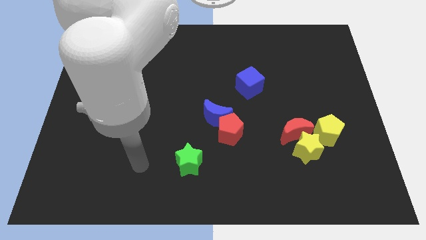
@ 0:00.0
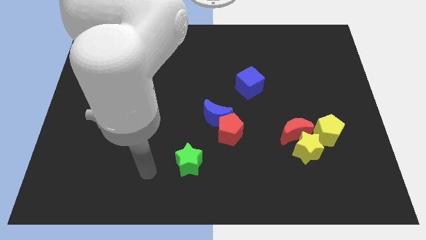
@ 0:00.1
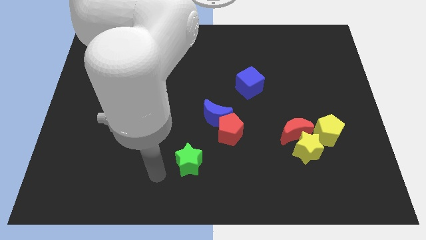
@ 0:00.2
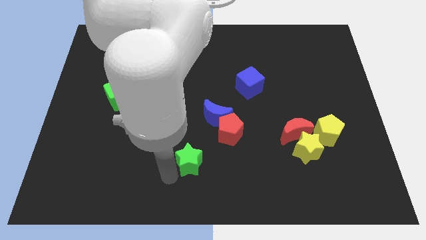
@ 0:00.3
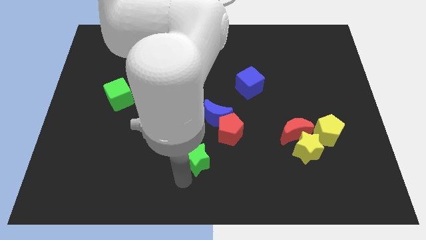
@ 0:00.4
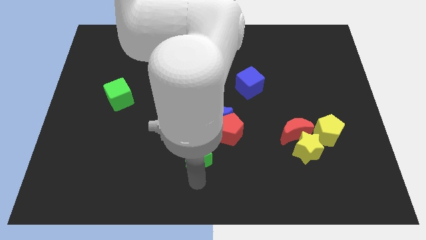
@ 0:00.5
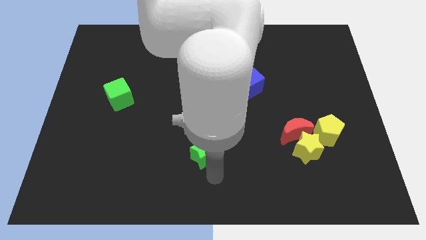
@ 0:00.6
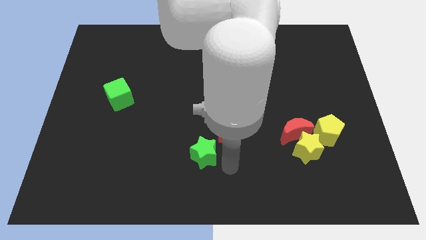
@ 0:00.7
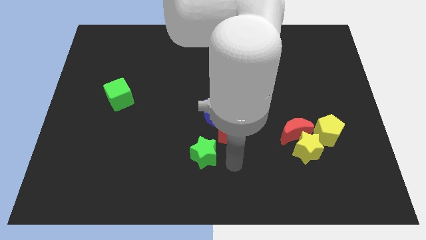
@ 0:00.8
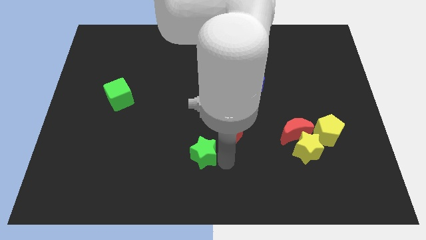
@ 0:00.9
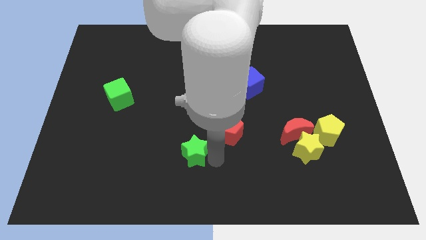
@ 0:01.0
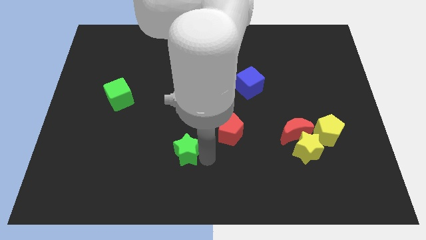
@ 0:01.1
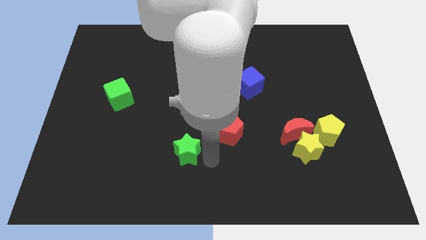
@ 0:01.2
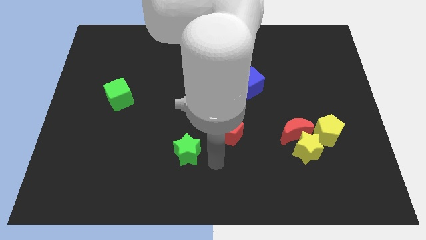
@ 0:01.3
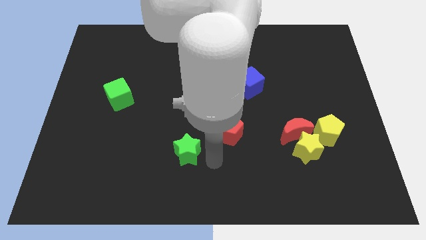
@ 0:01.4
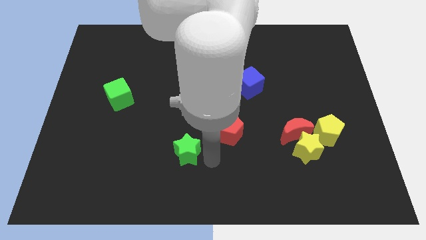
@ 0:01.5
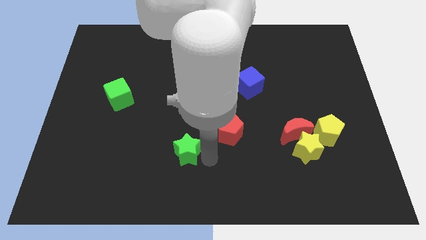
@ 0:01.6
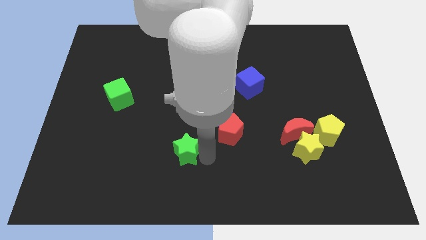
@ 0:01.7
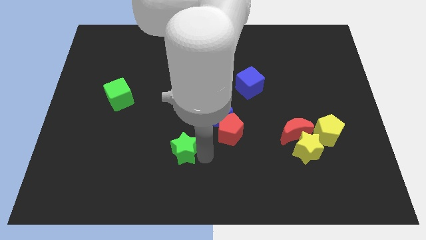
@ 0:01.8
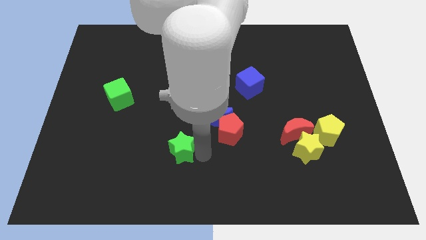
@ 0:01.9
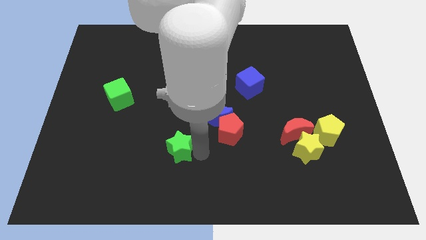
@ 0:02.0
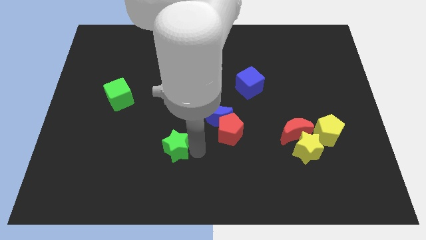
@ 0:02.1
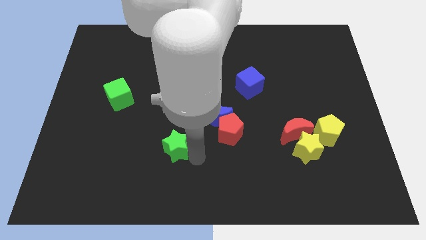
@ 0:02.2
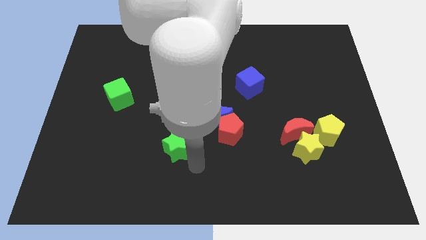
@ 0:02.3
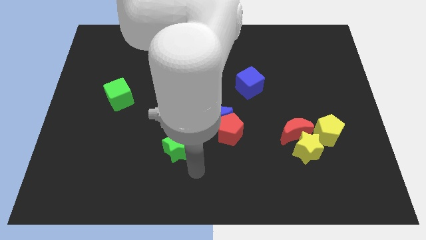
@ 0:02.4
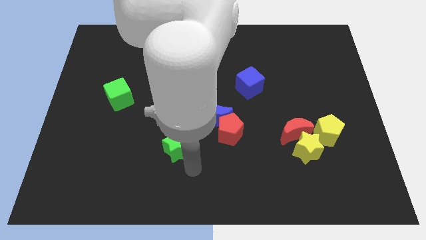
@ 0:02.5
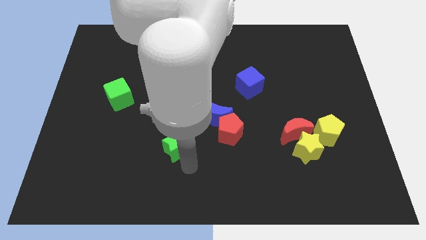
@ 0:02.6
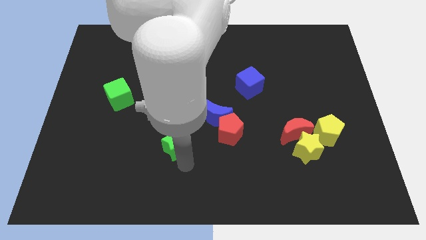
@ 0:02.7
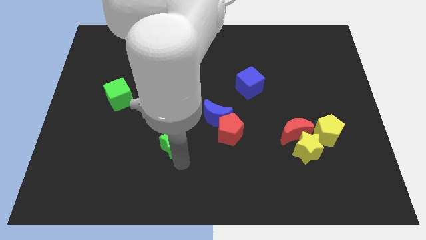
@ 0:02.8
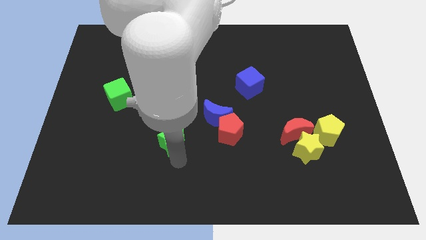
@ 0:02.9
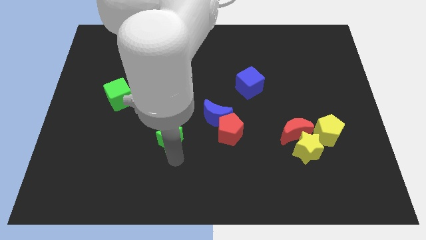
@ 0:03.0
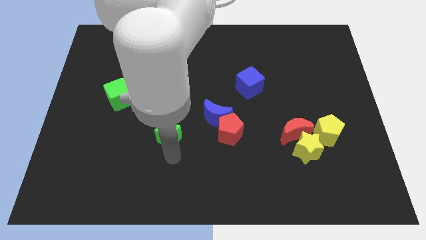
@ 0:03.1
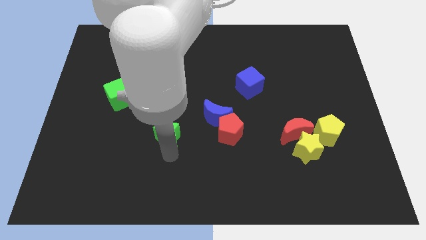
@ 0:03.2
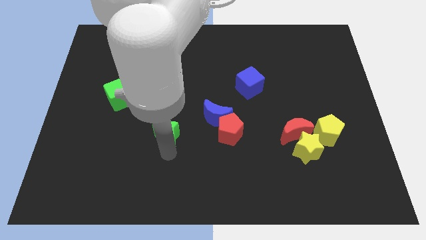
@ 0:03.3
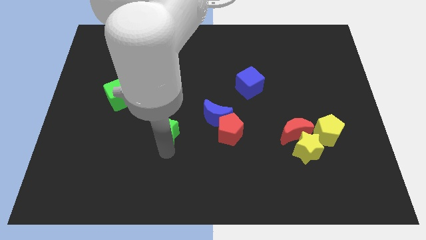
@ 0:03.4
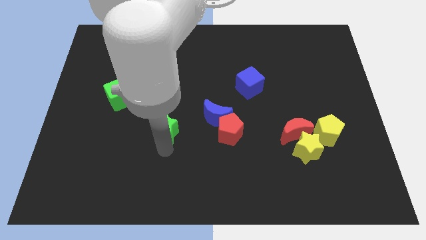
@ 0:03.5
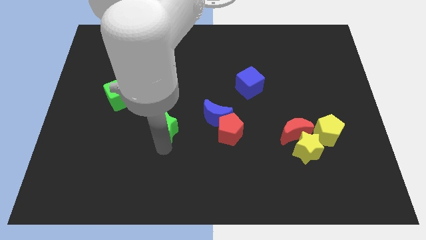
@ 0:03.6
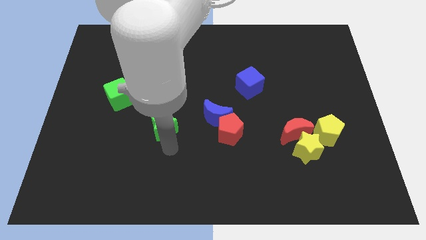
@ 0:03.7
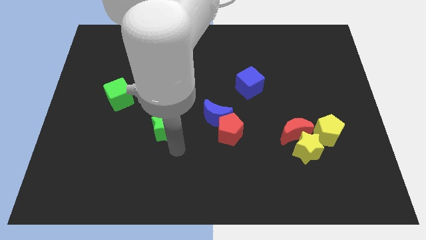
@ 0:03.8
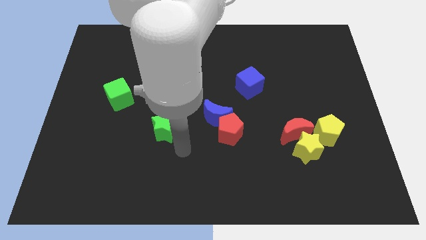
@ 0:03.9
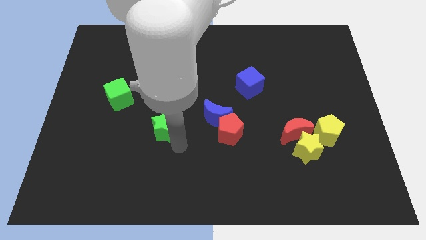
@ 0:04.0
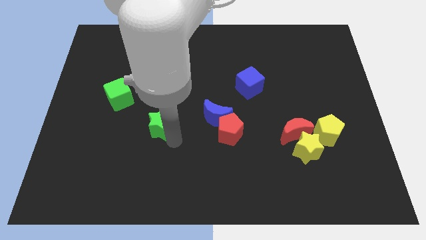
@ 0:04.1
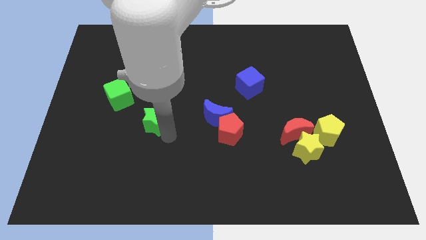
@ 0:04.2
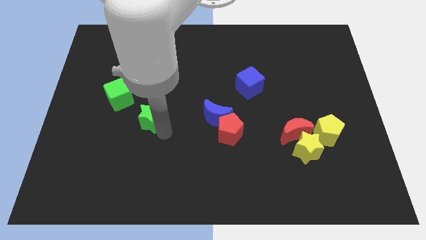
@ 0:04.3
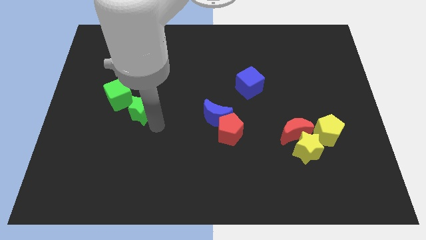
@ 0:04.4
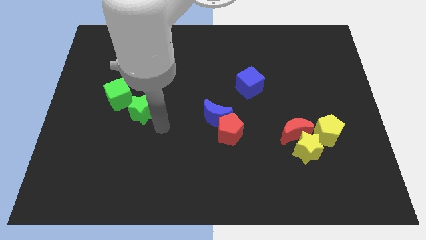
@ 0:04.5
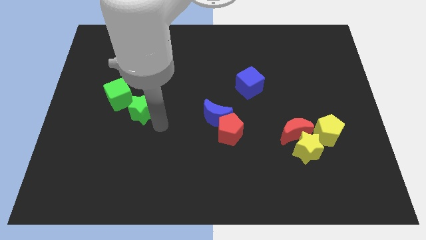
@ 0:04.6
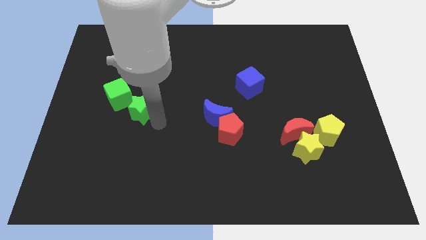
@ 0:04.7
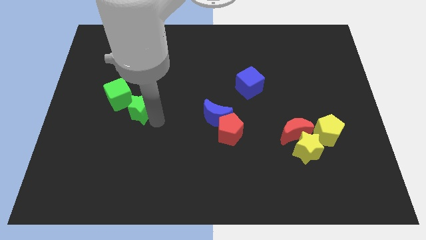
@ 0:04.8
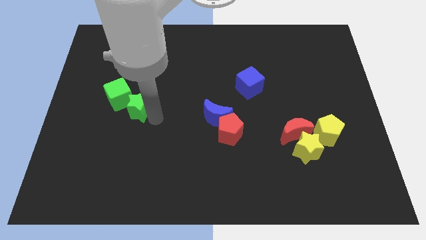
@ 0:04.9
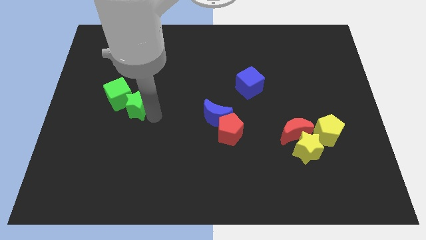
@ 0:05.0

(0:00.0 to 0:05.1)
put the green star towards the green cube

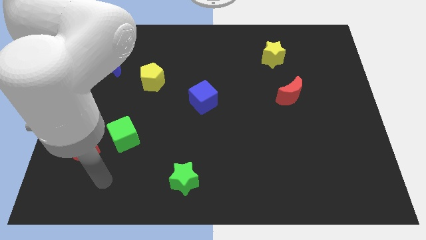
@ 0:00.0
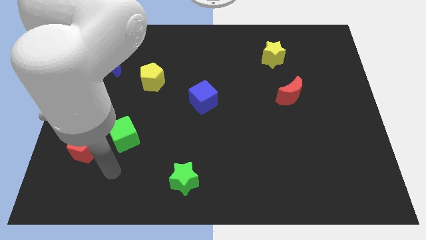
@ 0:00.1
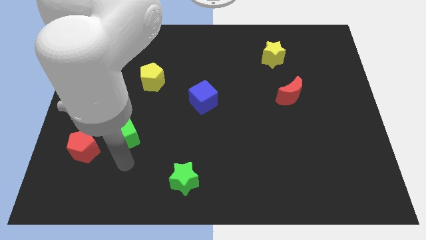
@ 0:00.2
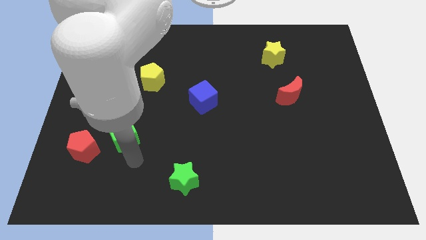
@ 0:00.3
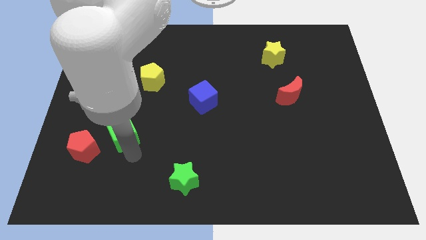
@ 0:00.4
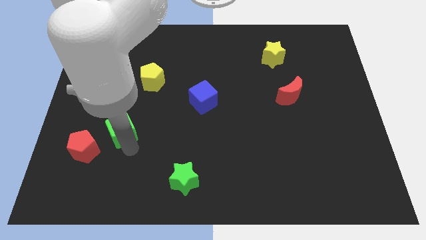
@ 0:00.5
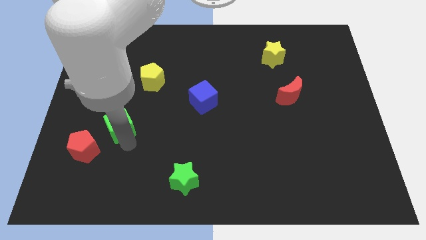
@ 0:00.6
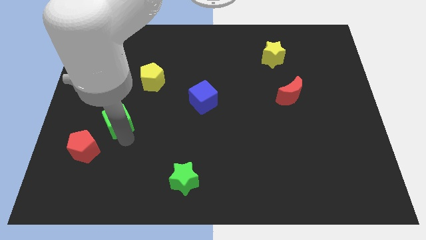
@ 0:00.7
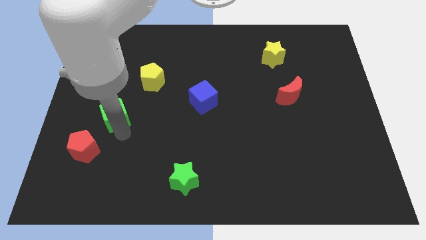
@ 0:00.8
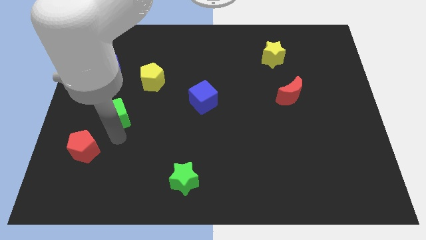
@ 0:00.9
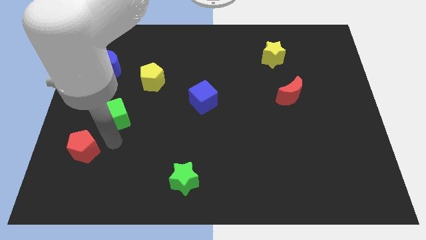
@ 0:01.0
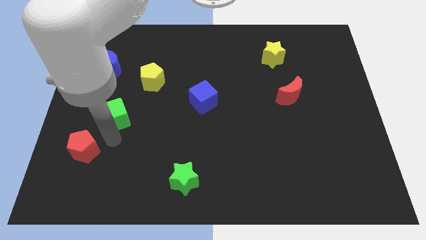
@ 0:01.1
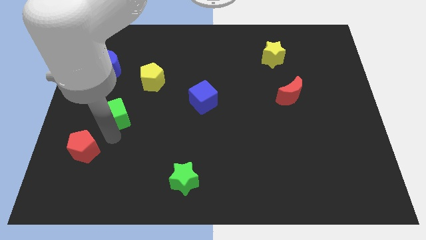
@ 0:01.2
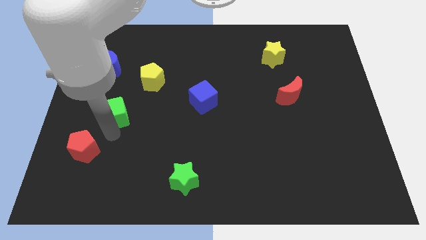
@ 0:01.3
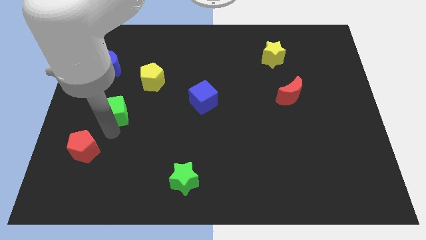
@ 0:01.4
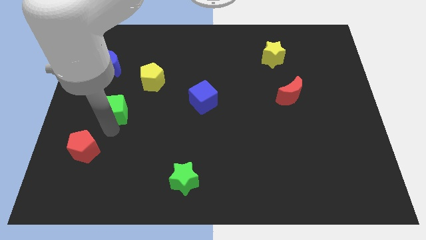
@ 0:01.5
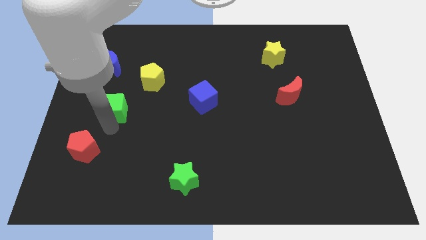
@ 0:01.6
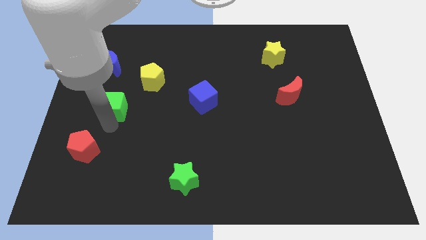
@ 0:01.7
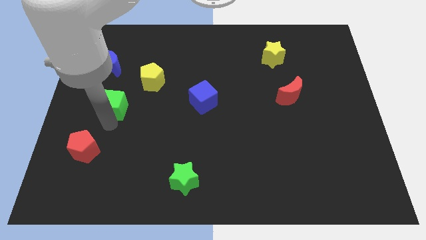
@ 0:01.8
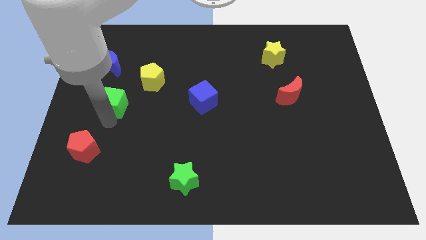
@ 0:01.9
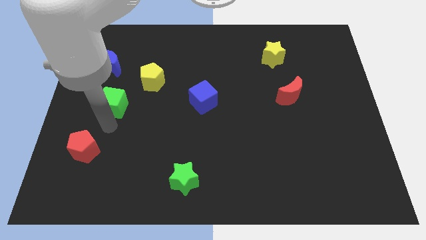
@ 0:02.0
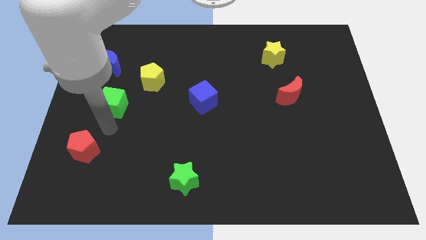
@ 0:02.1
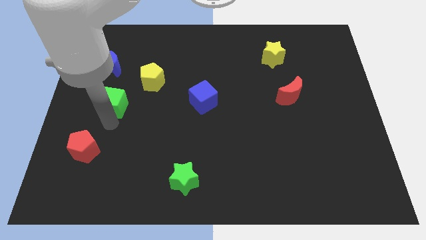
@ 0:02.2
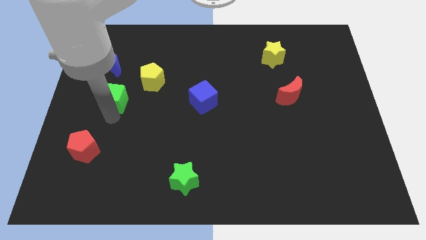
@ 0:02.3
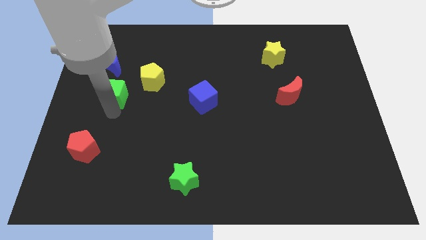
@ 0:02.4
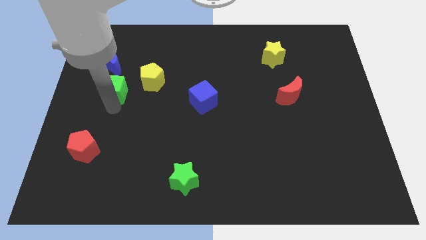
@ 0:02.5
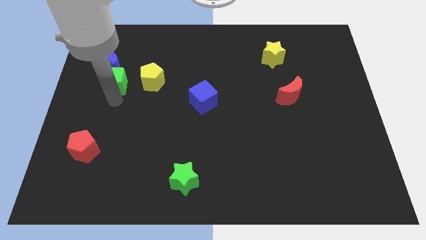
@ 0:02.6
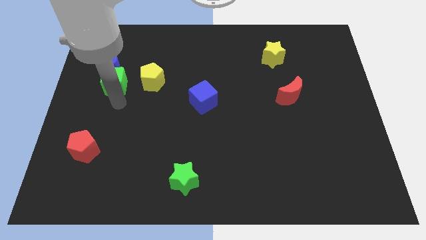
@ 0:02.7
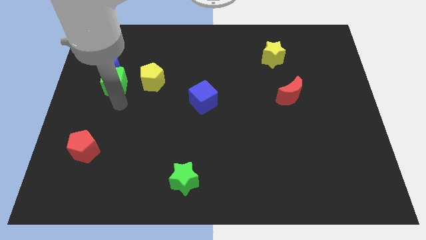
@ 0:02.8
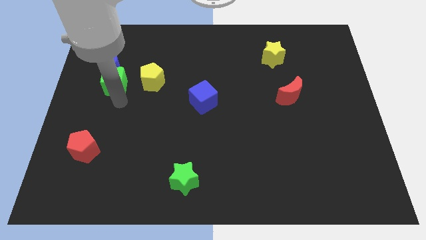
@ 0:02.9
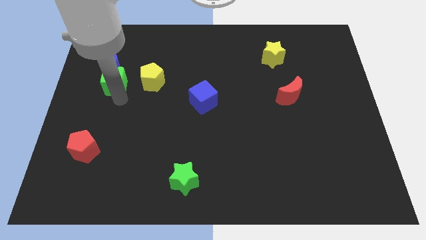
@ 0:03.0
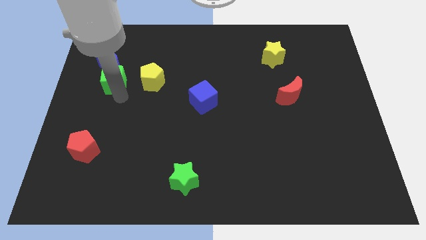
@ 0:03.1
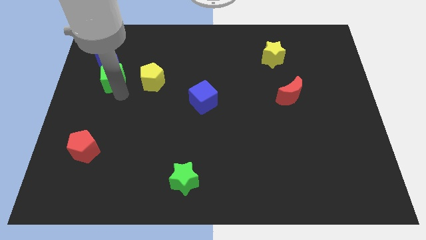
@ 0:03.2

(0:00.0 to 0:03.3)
put the green cube to the blue moon

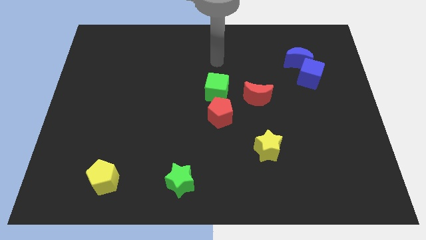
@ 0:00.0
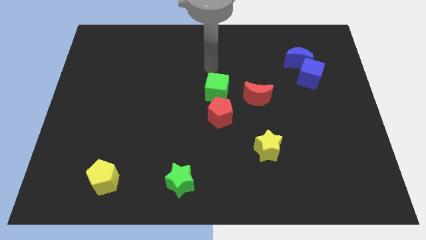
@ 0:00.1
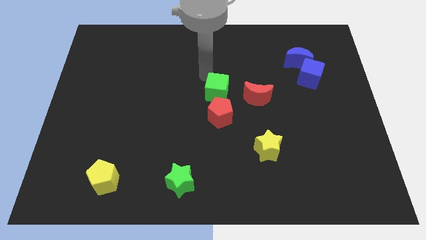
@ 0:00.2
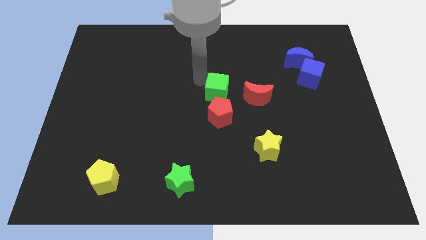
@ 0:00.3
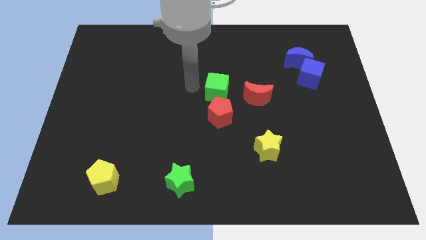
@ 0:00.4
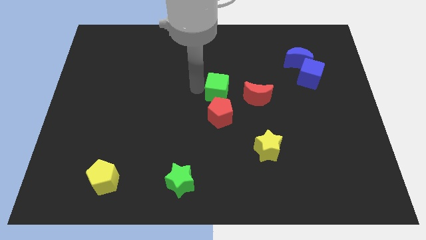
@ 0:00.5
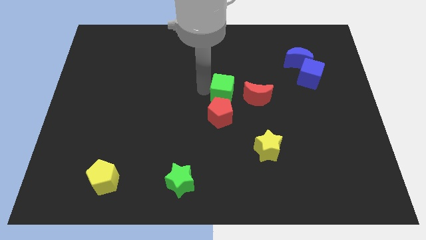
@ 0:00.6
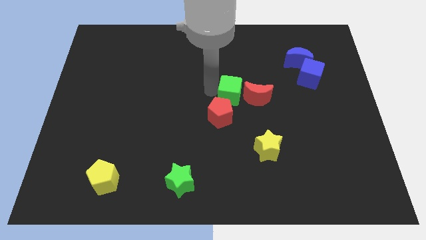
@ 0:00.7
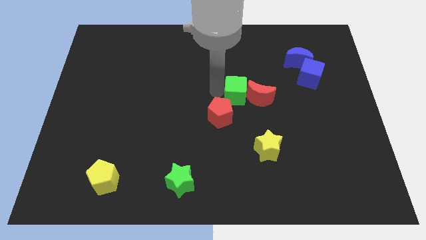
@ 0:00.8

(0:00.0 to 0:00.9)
move the green cube towards the red moon
